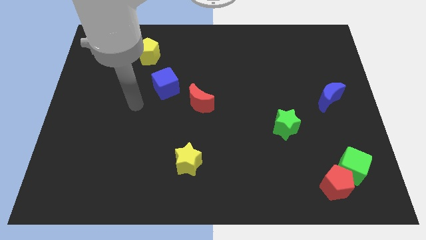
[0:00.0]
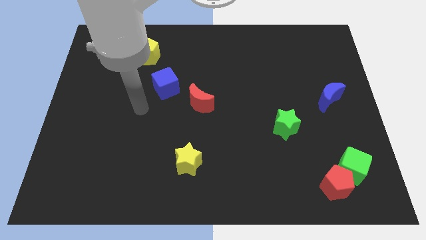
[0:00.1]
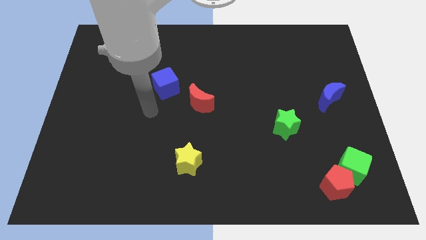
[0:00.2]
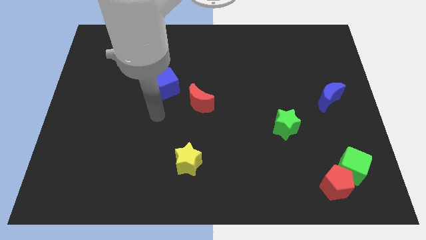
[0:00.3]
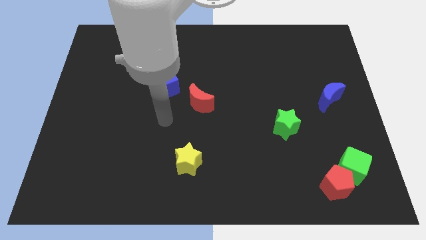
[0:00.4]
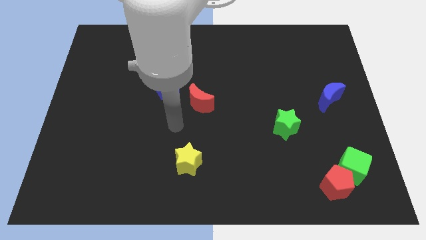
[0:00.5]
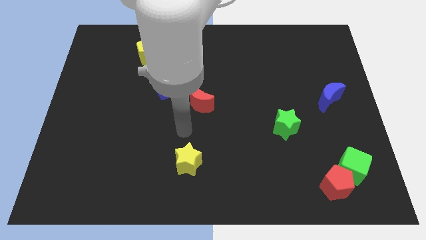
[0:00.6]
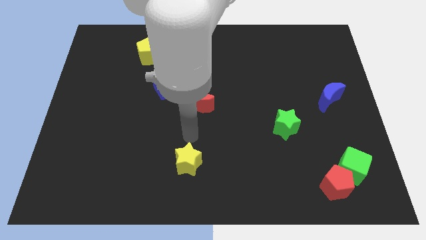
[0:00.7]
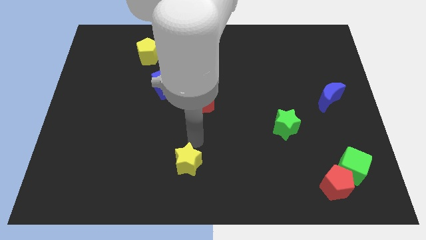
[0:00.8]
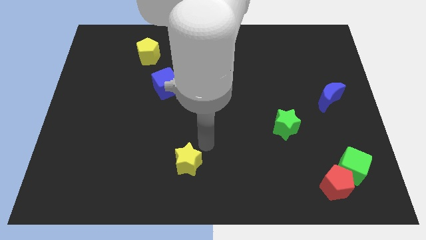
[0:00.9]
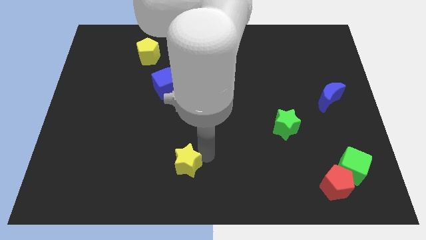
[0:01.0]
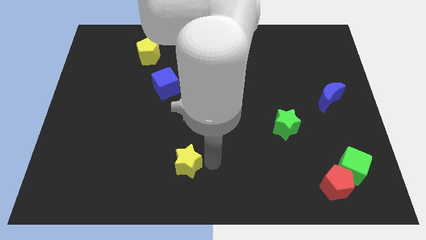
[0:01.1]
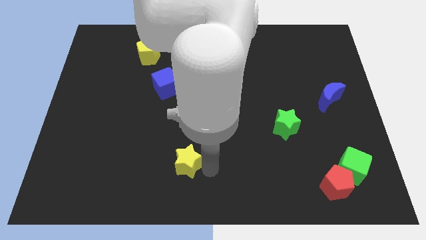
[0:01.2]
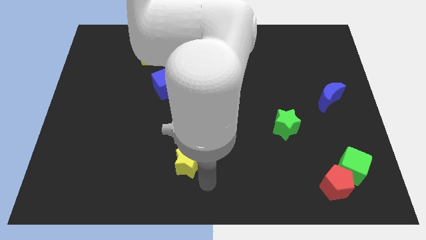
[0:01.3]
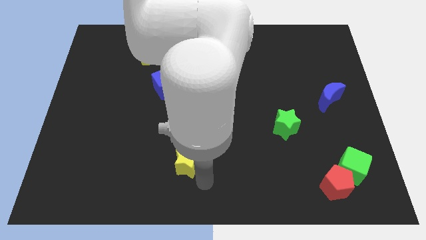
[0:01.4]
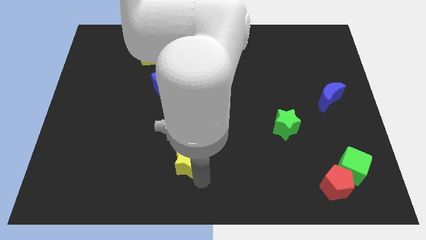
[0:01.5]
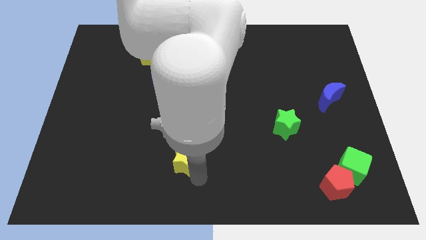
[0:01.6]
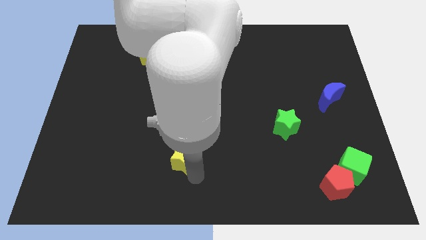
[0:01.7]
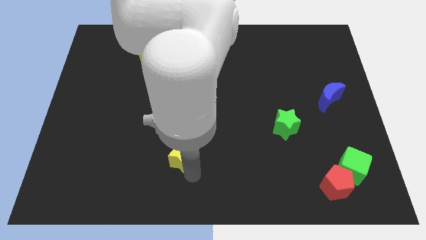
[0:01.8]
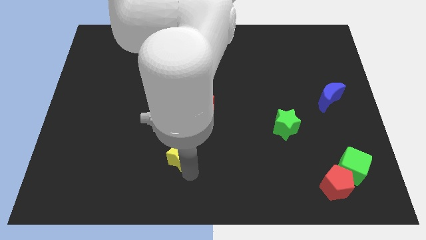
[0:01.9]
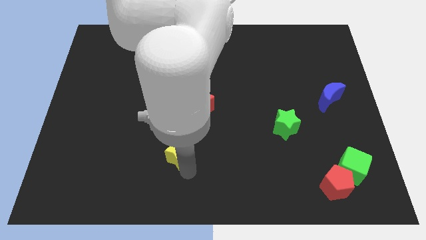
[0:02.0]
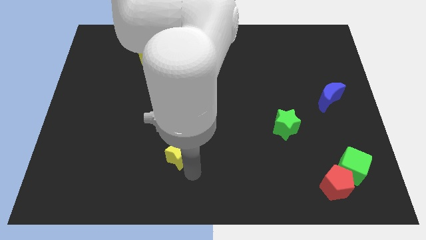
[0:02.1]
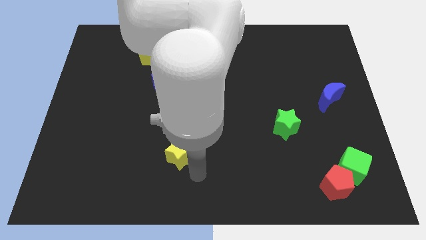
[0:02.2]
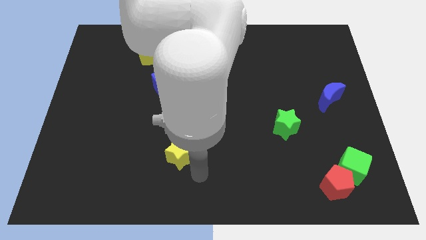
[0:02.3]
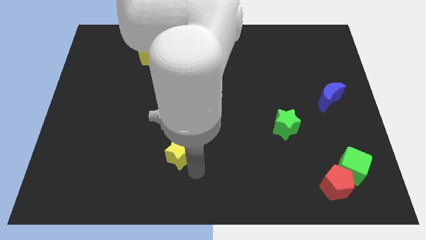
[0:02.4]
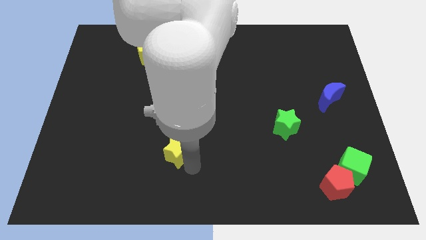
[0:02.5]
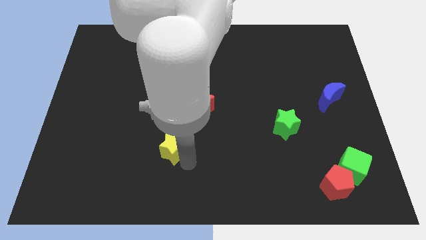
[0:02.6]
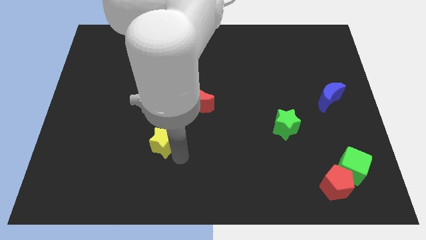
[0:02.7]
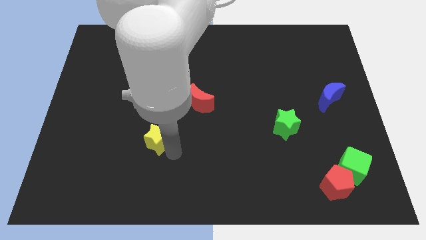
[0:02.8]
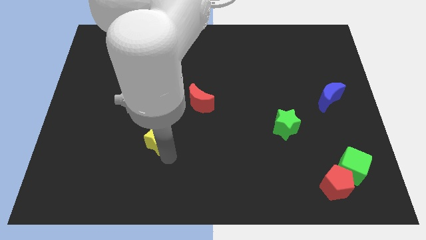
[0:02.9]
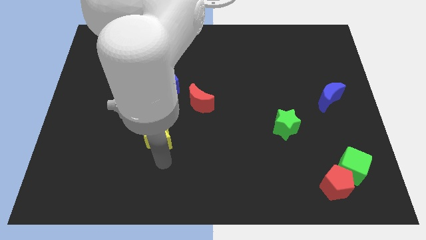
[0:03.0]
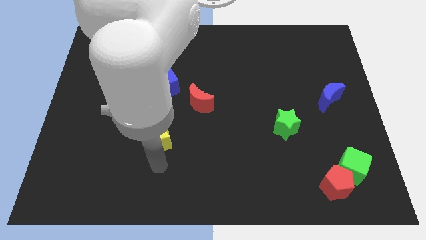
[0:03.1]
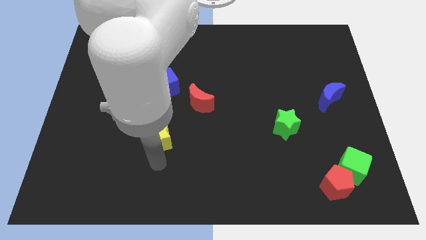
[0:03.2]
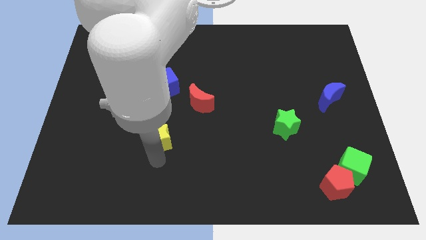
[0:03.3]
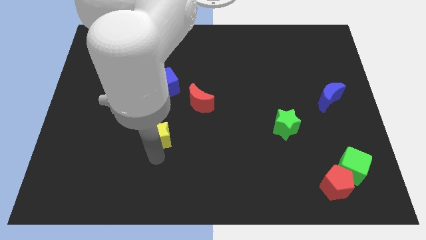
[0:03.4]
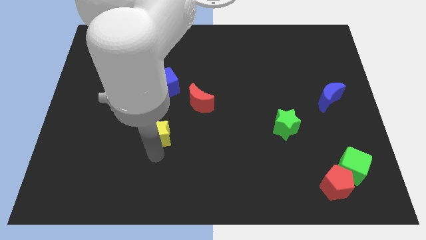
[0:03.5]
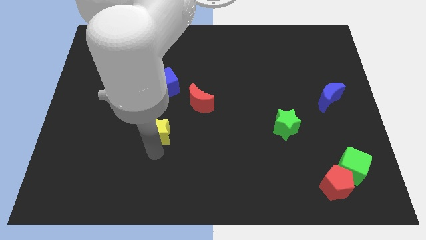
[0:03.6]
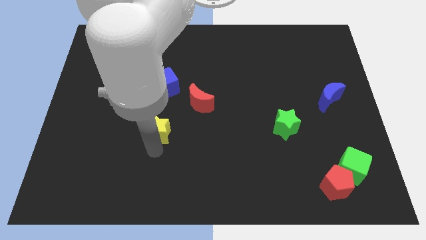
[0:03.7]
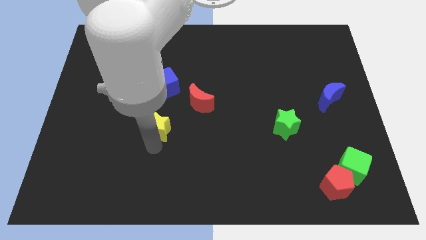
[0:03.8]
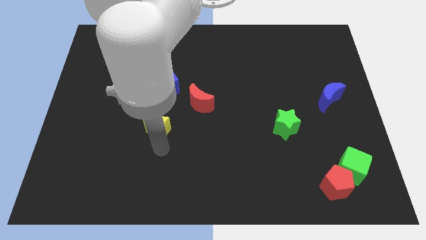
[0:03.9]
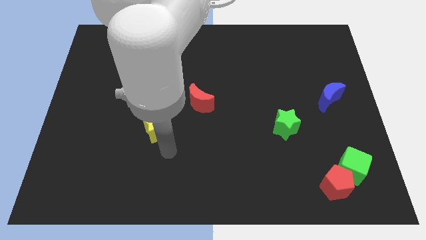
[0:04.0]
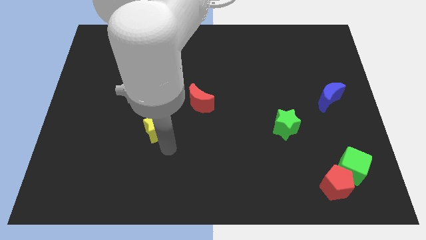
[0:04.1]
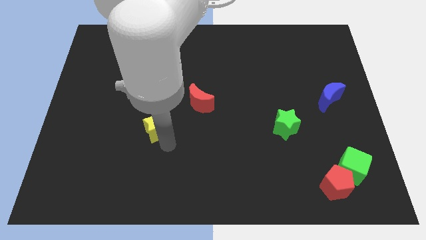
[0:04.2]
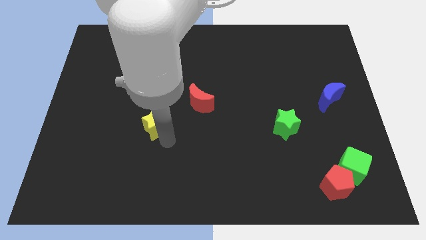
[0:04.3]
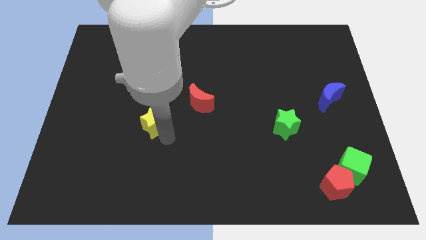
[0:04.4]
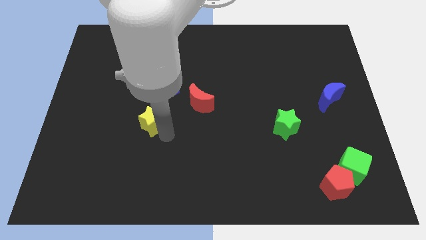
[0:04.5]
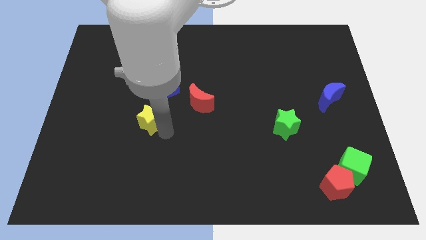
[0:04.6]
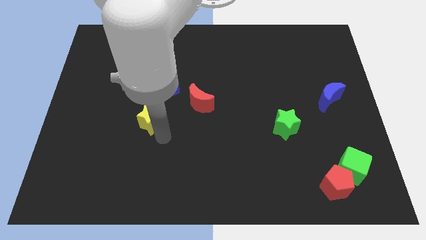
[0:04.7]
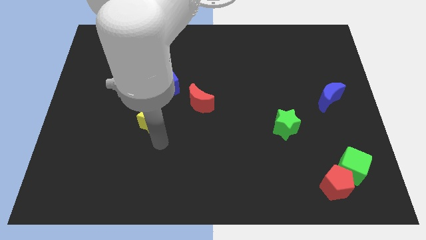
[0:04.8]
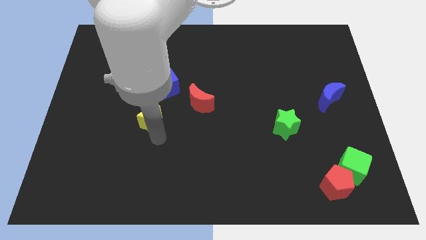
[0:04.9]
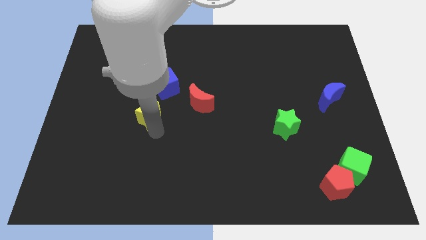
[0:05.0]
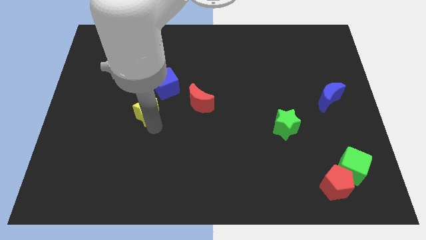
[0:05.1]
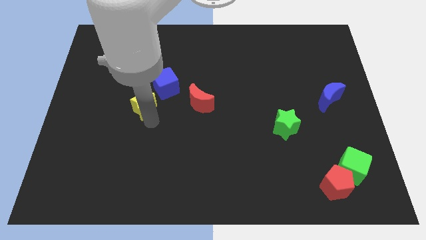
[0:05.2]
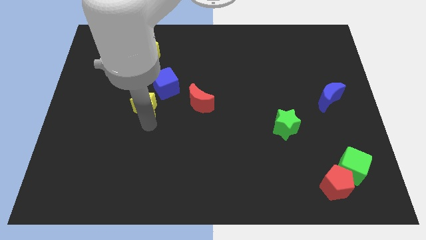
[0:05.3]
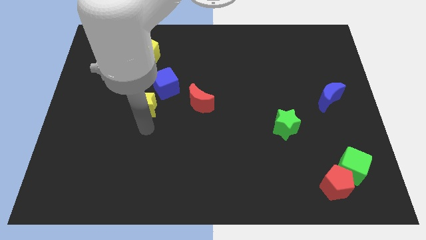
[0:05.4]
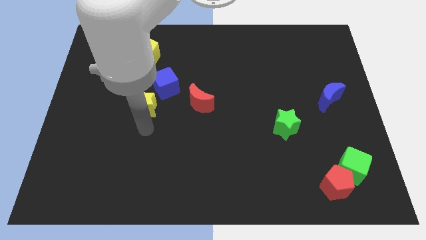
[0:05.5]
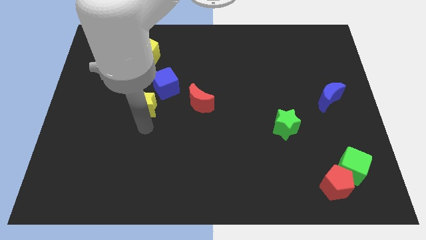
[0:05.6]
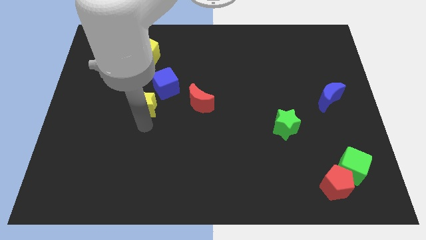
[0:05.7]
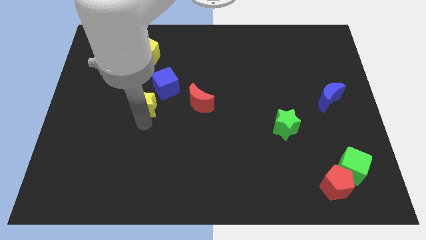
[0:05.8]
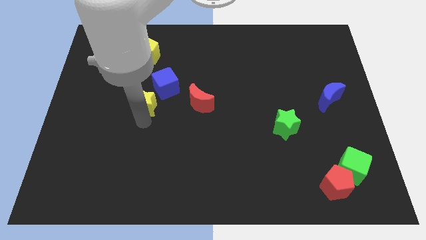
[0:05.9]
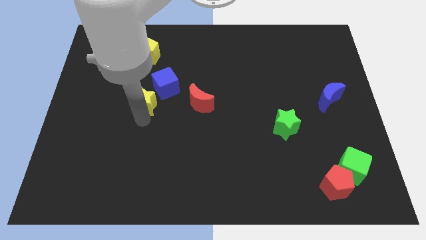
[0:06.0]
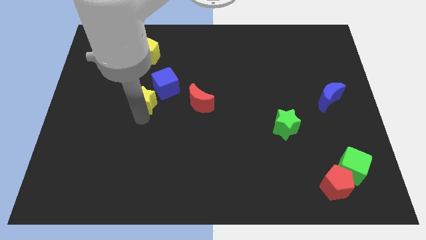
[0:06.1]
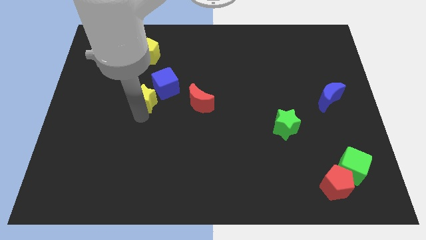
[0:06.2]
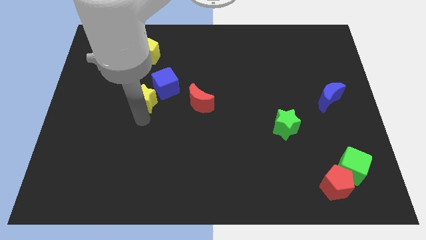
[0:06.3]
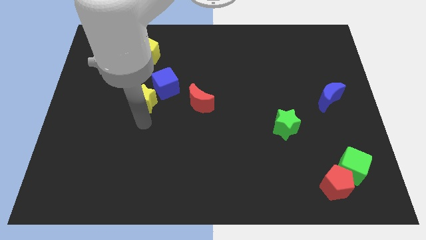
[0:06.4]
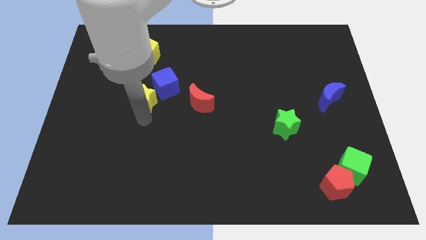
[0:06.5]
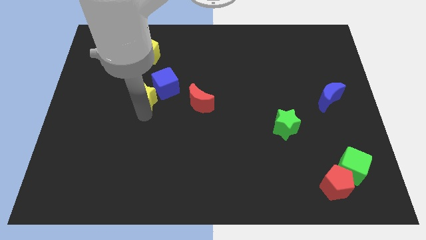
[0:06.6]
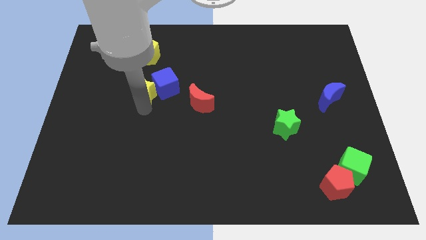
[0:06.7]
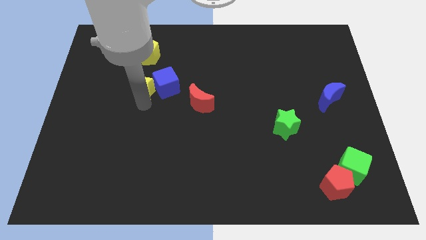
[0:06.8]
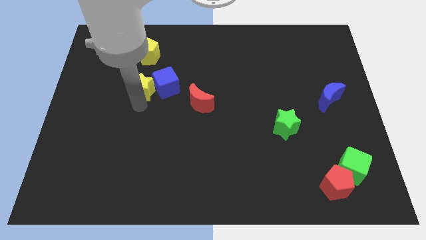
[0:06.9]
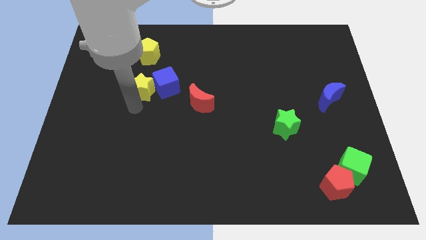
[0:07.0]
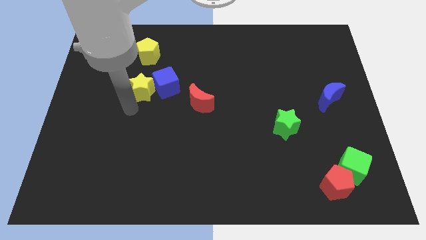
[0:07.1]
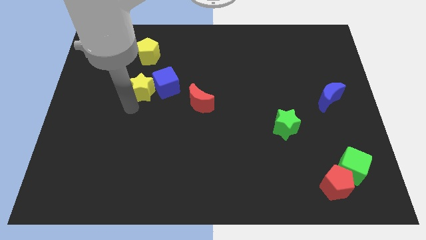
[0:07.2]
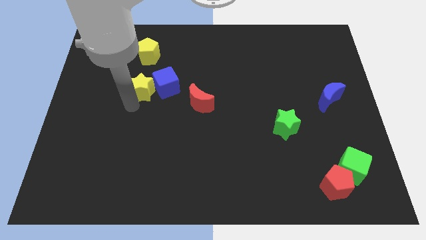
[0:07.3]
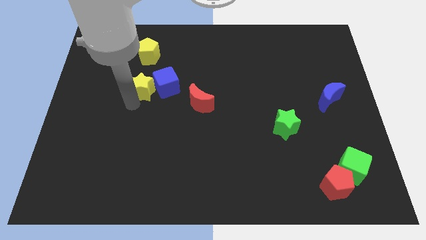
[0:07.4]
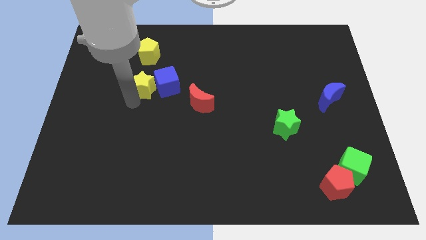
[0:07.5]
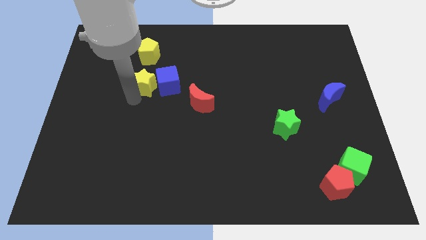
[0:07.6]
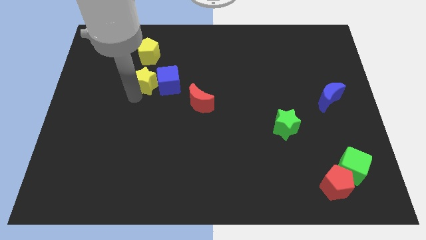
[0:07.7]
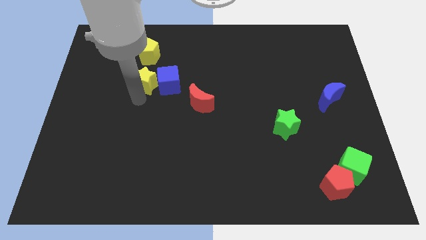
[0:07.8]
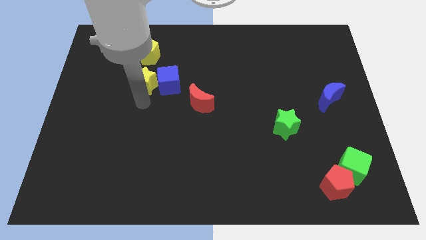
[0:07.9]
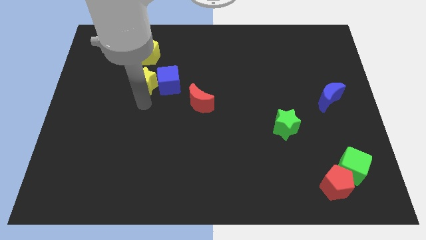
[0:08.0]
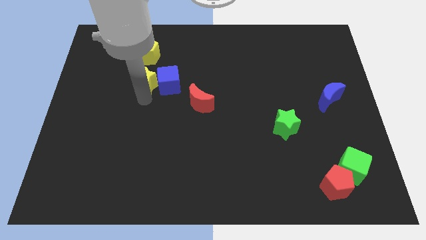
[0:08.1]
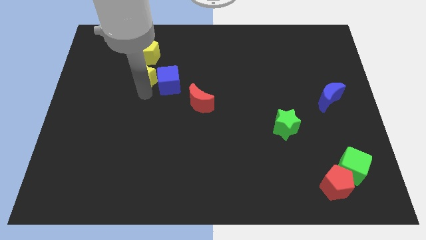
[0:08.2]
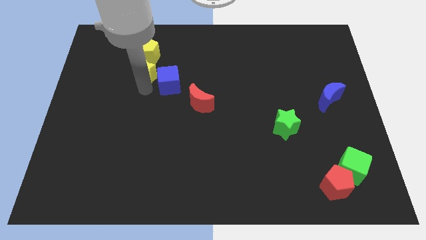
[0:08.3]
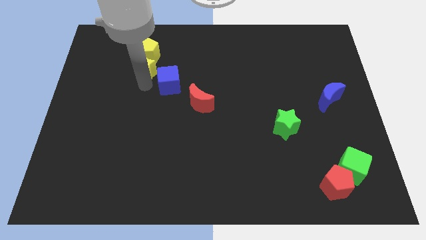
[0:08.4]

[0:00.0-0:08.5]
slide the yellow star towards the yellow pentagon
